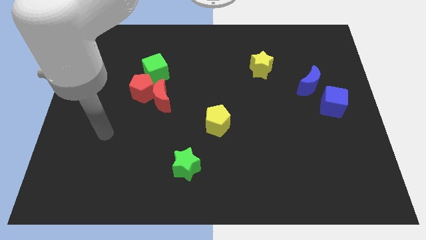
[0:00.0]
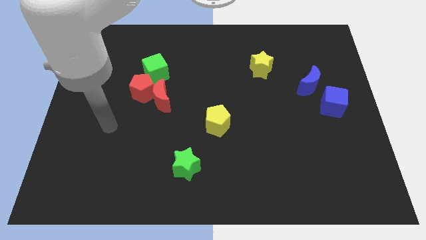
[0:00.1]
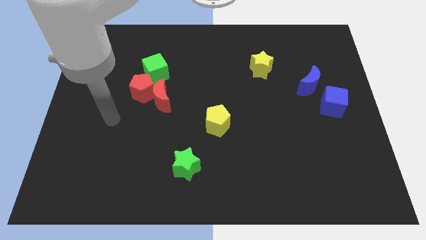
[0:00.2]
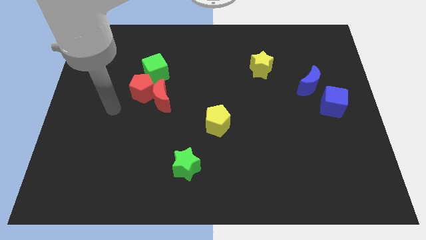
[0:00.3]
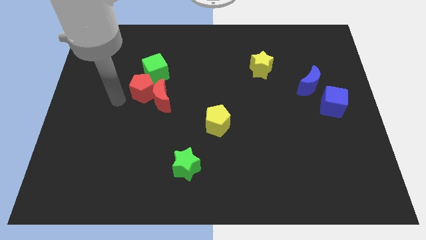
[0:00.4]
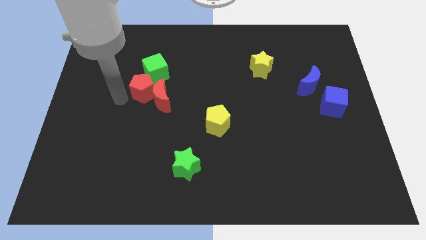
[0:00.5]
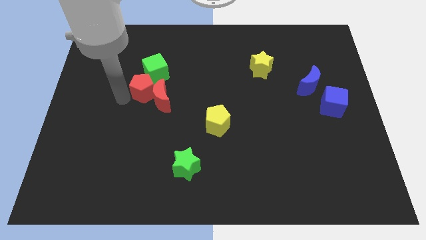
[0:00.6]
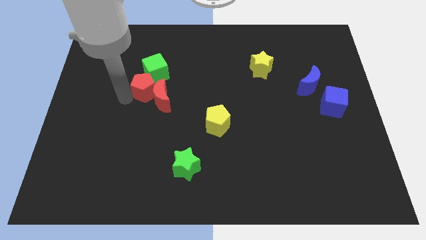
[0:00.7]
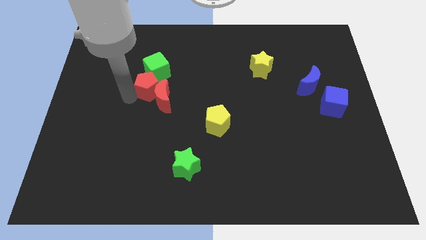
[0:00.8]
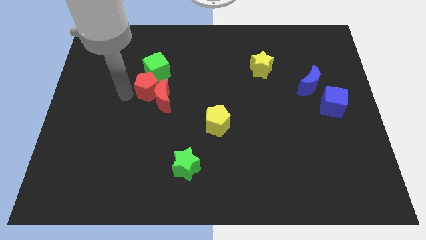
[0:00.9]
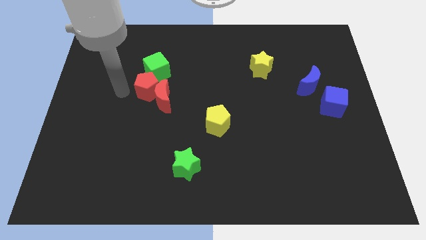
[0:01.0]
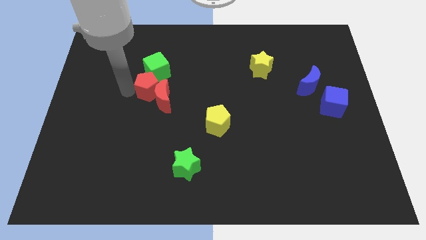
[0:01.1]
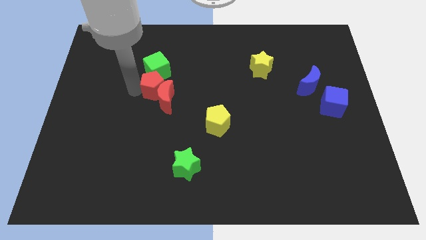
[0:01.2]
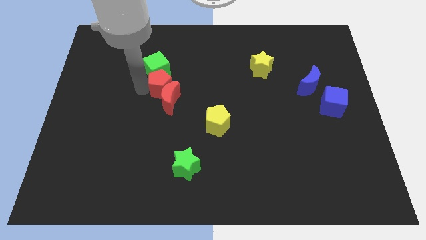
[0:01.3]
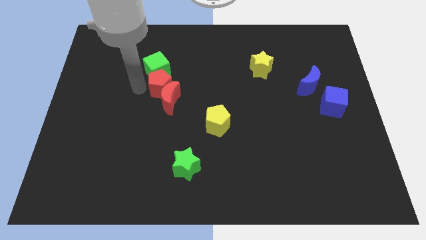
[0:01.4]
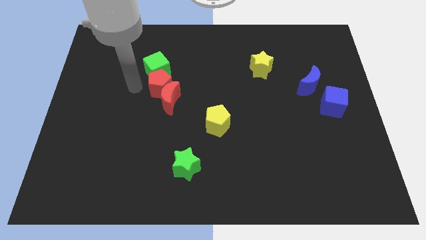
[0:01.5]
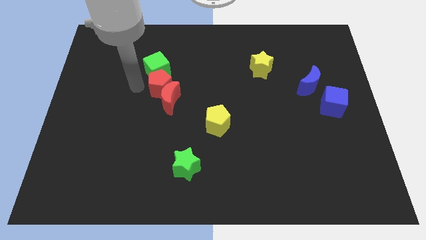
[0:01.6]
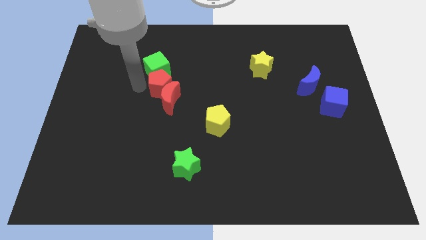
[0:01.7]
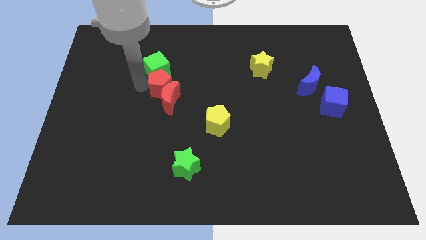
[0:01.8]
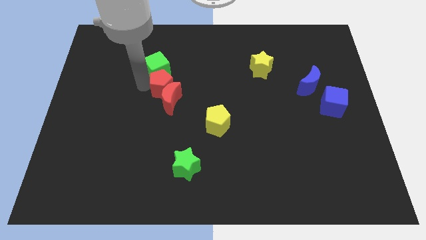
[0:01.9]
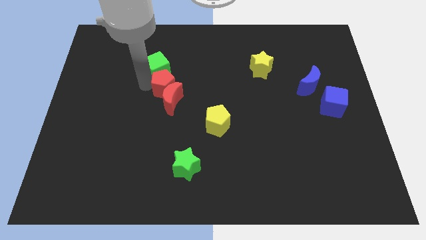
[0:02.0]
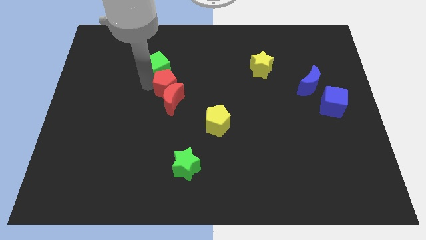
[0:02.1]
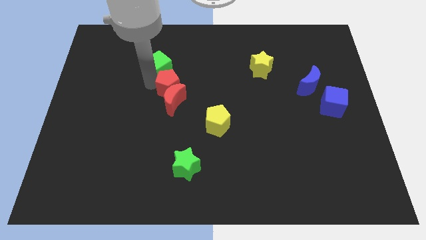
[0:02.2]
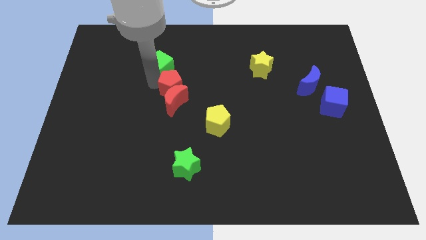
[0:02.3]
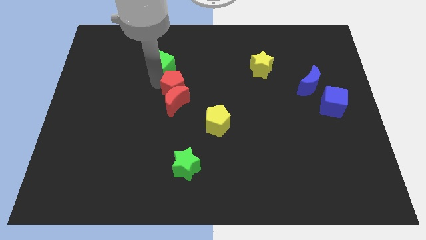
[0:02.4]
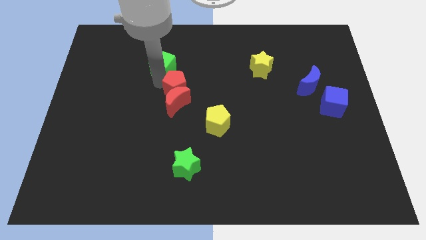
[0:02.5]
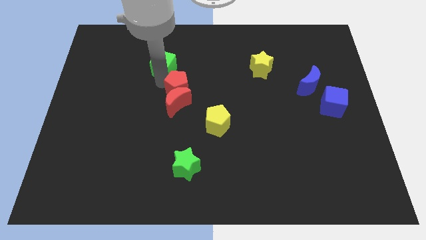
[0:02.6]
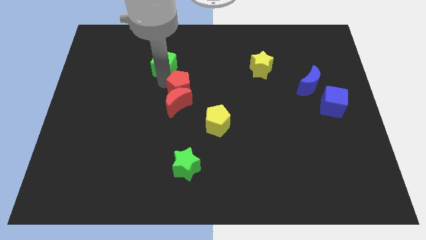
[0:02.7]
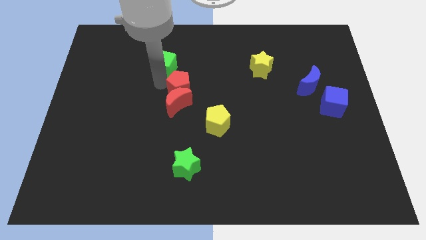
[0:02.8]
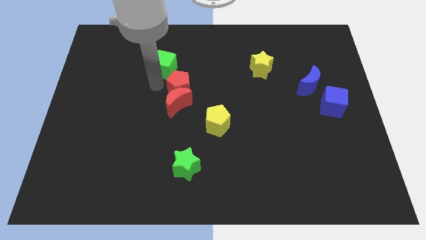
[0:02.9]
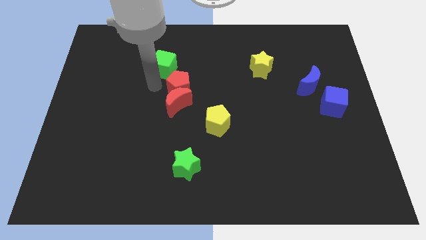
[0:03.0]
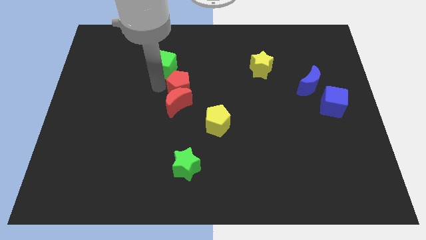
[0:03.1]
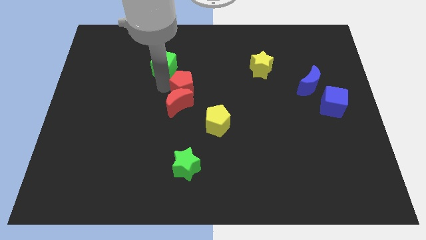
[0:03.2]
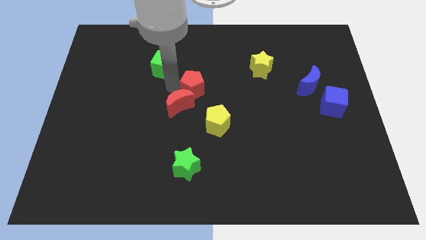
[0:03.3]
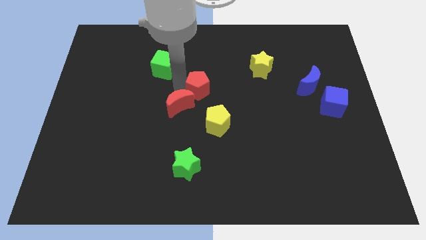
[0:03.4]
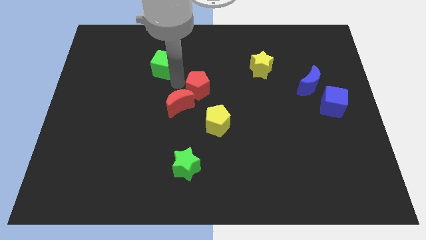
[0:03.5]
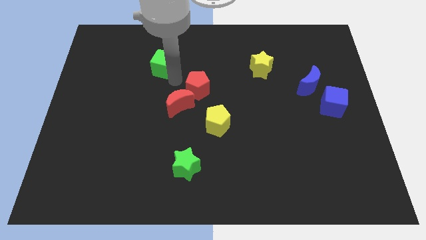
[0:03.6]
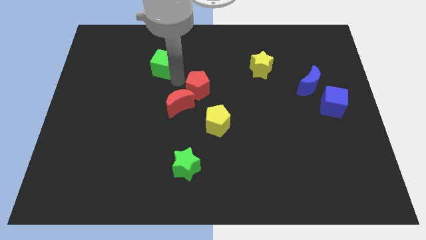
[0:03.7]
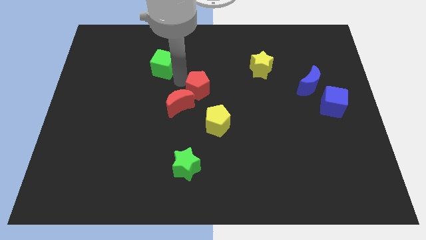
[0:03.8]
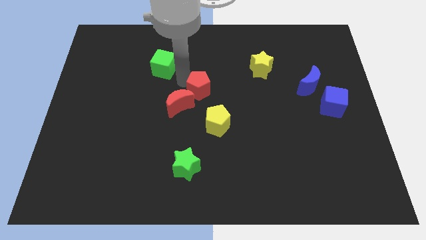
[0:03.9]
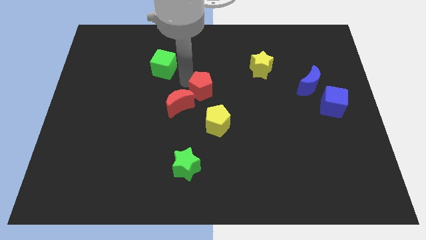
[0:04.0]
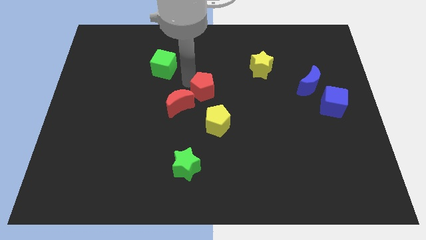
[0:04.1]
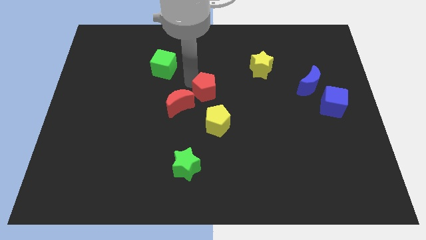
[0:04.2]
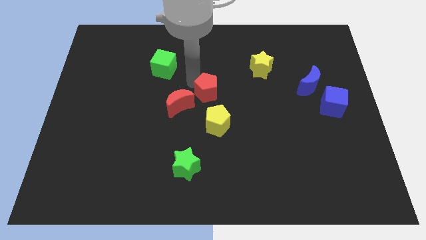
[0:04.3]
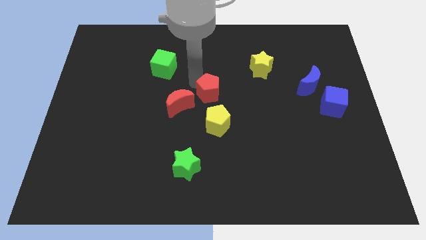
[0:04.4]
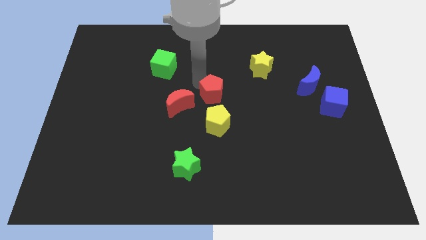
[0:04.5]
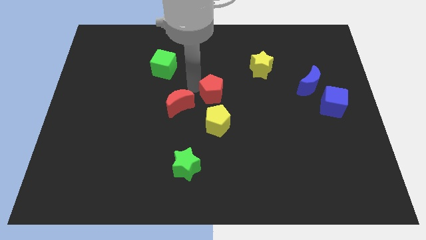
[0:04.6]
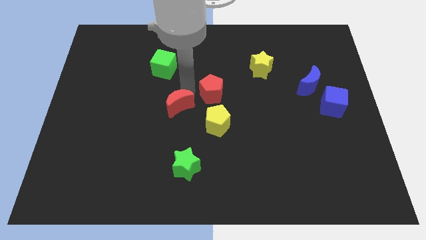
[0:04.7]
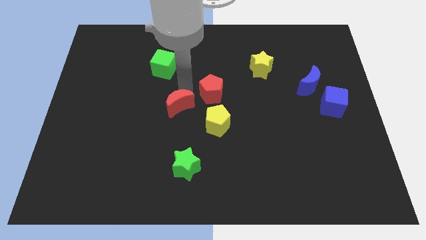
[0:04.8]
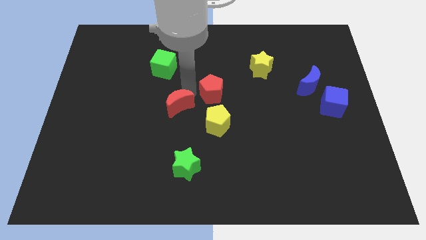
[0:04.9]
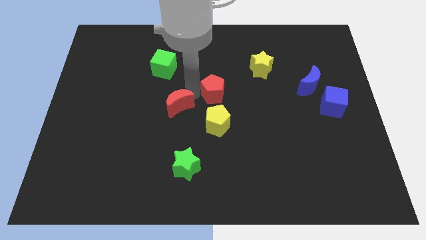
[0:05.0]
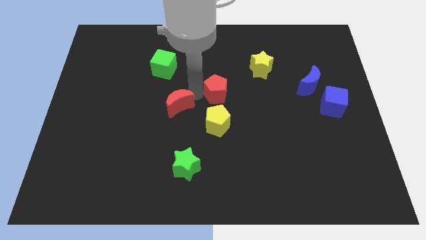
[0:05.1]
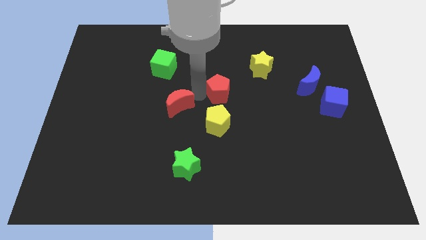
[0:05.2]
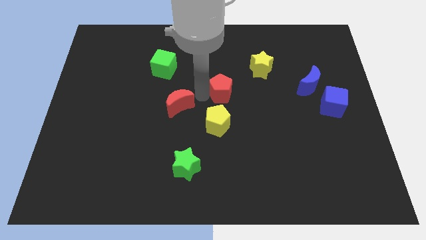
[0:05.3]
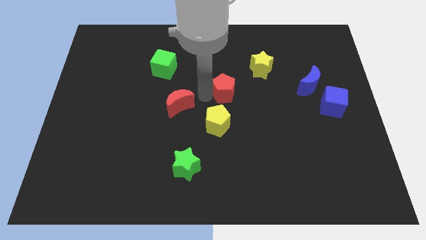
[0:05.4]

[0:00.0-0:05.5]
push the red pentagon to the right

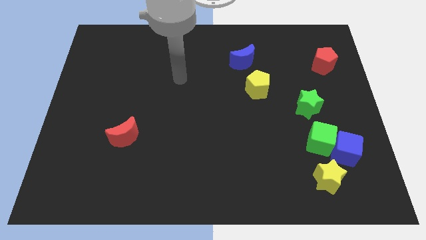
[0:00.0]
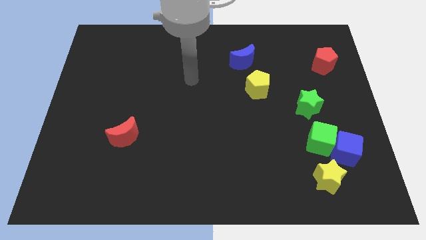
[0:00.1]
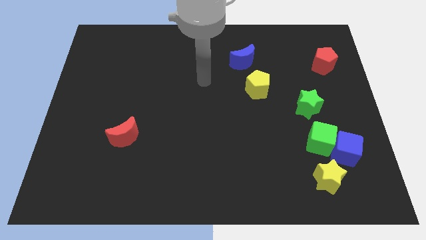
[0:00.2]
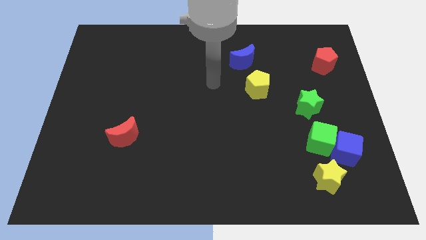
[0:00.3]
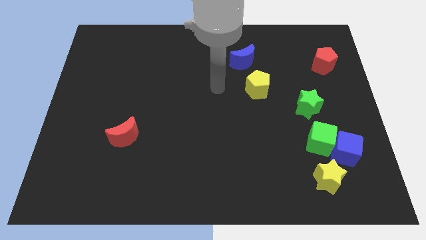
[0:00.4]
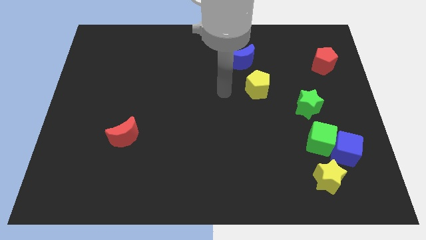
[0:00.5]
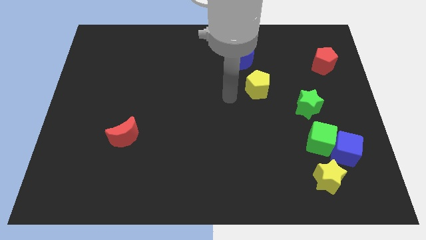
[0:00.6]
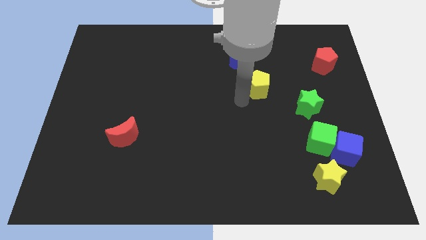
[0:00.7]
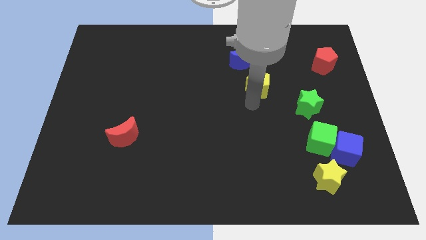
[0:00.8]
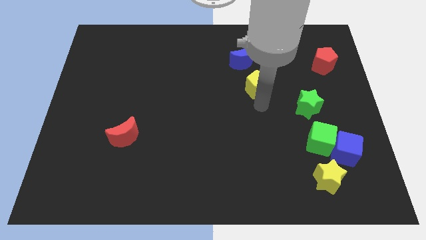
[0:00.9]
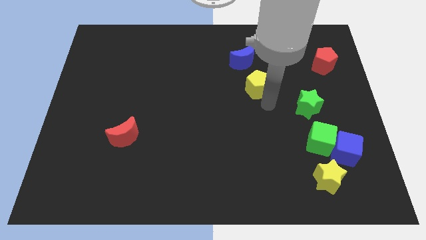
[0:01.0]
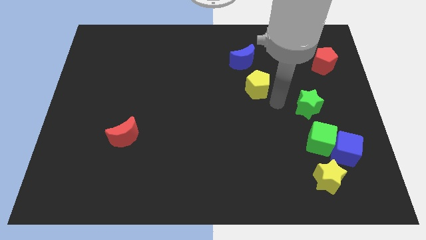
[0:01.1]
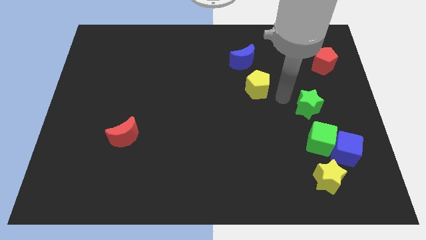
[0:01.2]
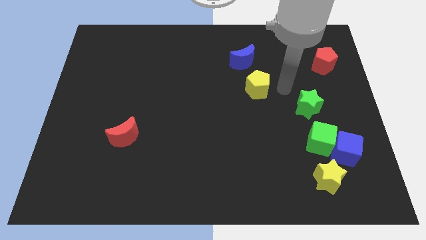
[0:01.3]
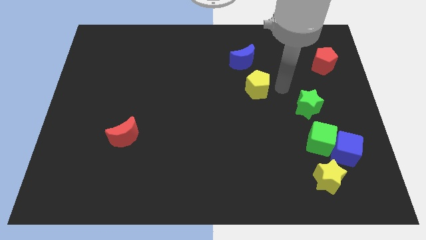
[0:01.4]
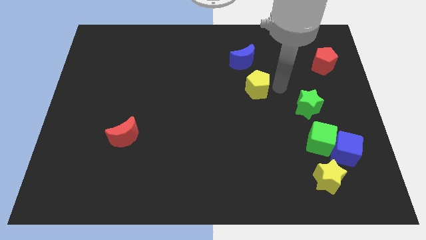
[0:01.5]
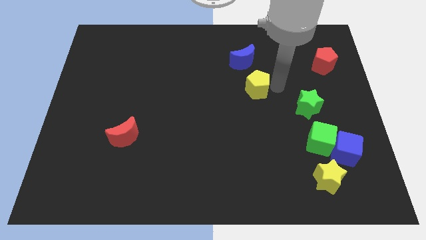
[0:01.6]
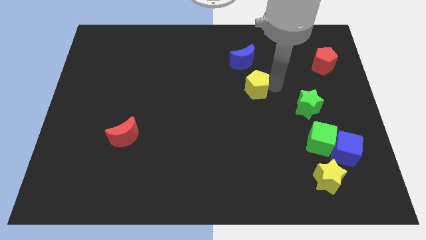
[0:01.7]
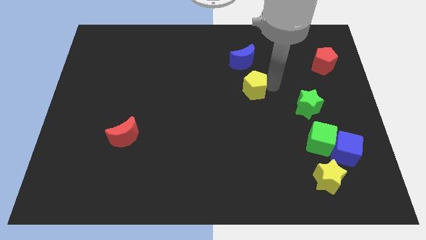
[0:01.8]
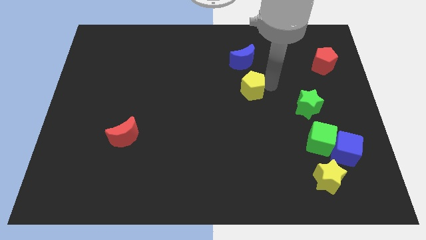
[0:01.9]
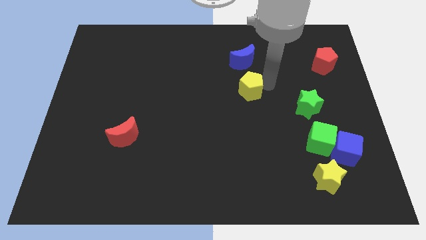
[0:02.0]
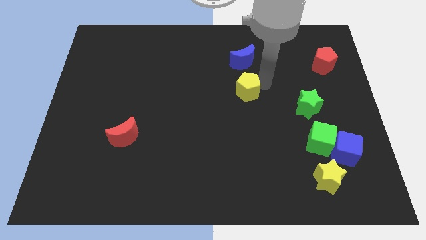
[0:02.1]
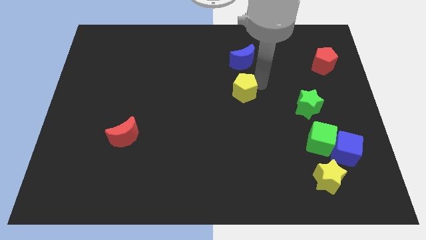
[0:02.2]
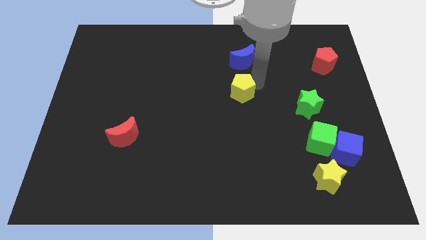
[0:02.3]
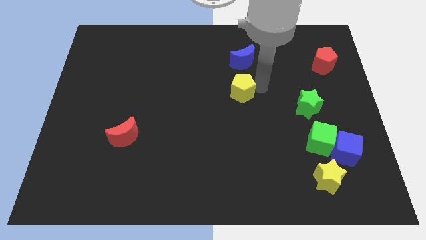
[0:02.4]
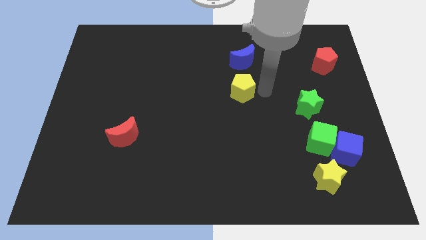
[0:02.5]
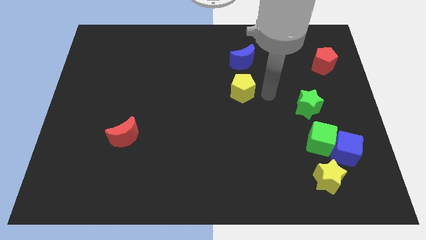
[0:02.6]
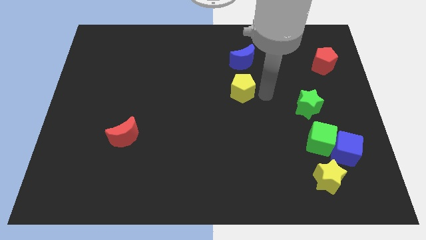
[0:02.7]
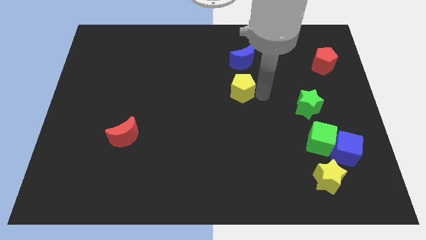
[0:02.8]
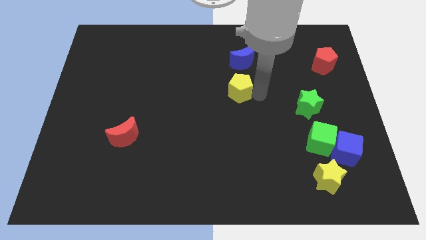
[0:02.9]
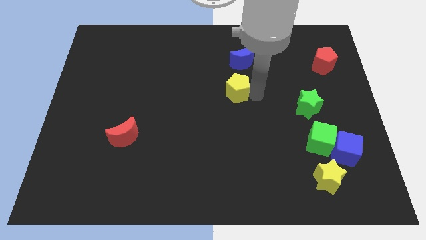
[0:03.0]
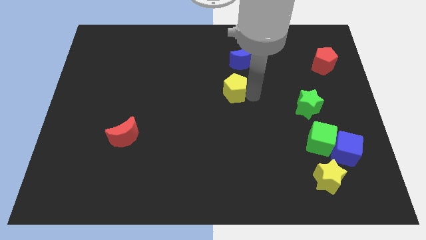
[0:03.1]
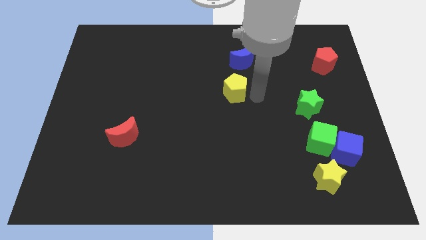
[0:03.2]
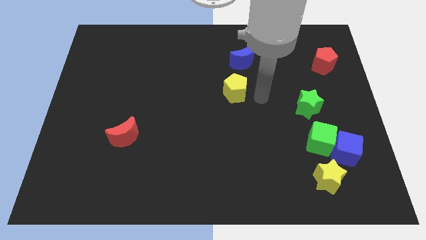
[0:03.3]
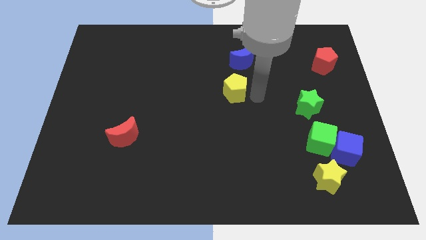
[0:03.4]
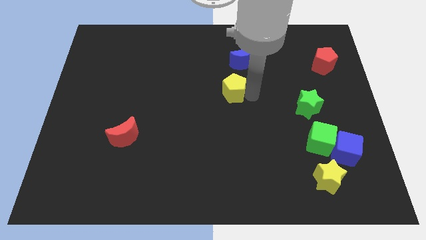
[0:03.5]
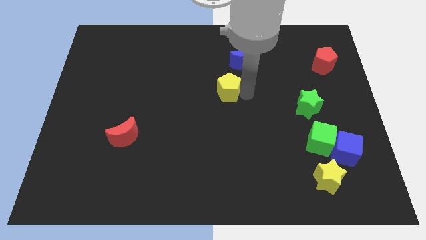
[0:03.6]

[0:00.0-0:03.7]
slide the yellow pentagon left somewhat
